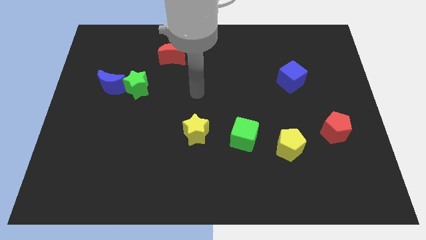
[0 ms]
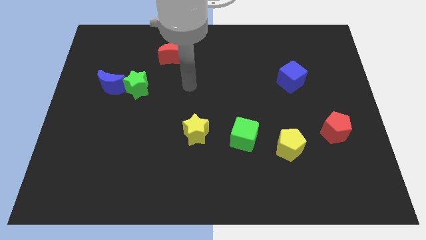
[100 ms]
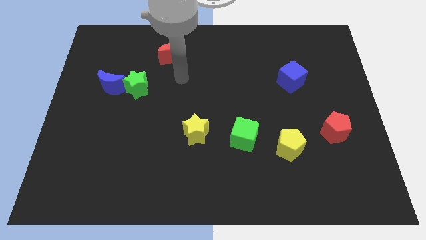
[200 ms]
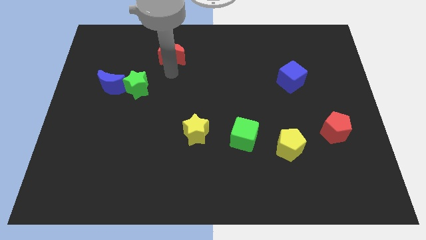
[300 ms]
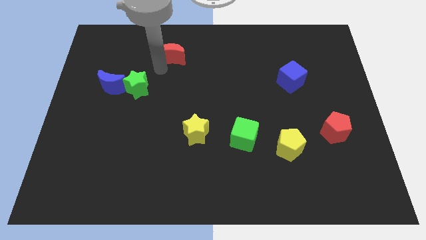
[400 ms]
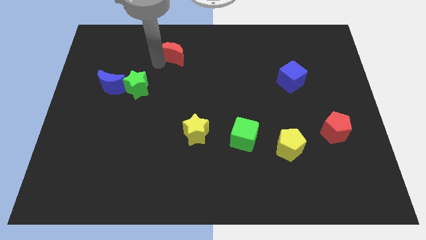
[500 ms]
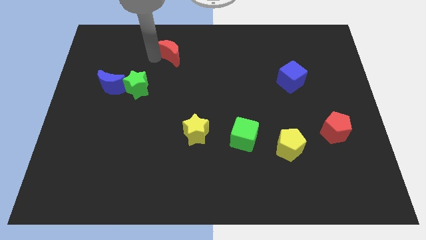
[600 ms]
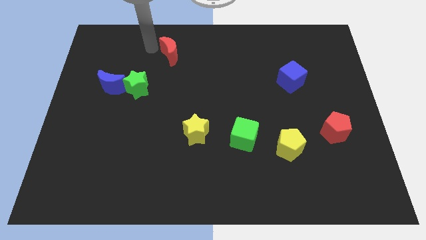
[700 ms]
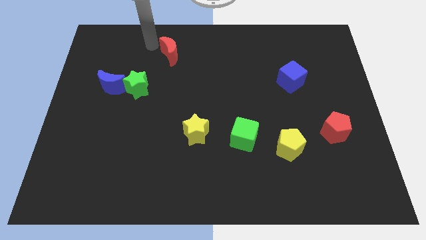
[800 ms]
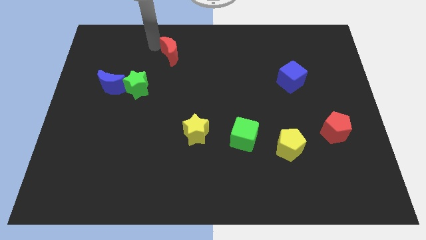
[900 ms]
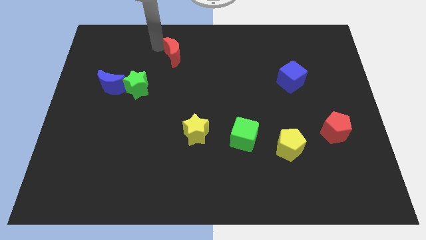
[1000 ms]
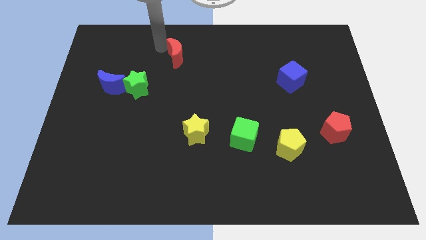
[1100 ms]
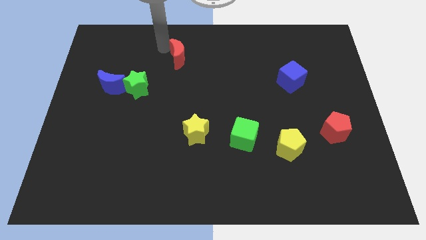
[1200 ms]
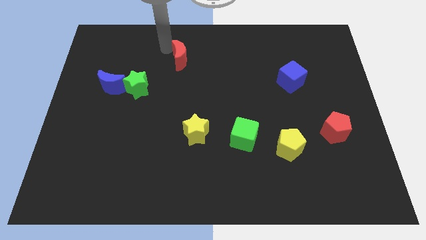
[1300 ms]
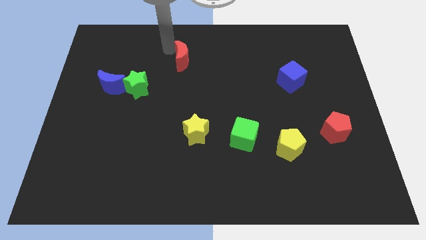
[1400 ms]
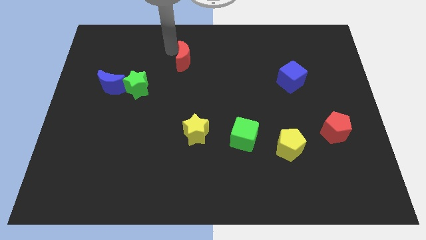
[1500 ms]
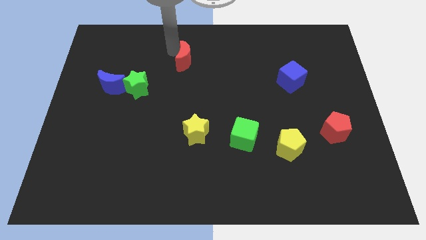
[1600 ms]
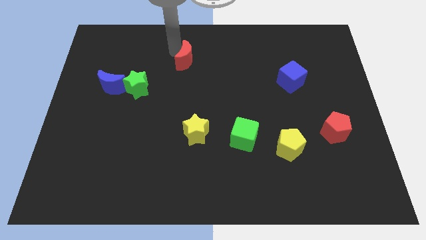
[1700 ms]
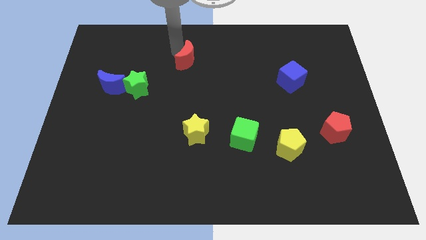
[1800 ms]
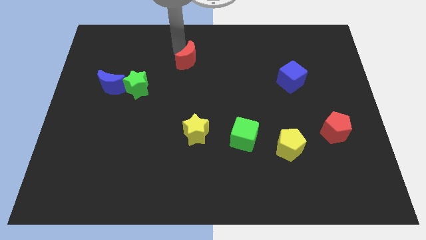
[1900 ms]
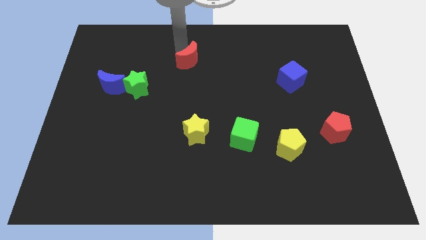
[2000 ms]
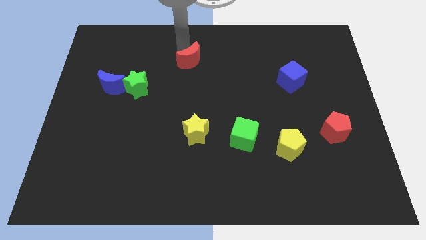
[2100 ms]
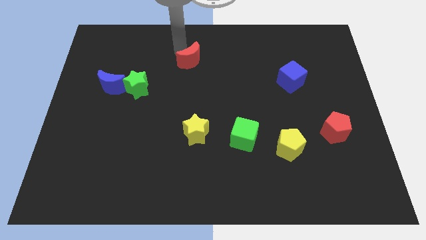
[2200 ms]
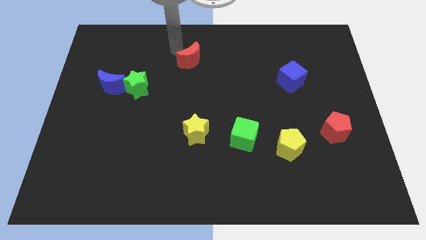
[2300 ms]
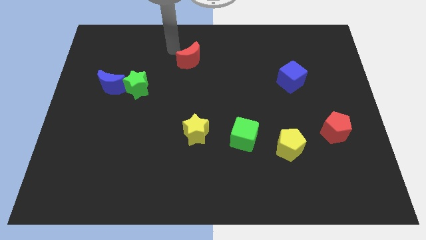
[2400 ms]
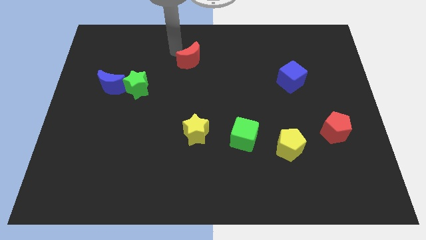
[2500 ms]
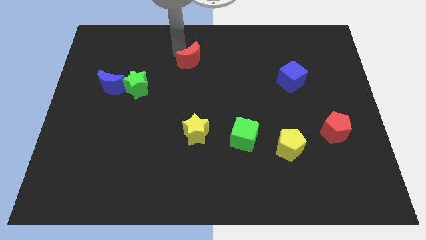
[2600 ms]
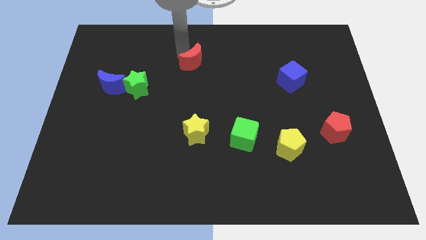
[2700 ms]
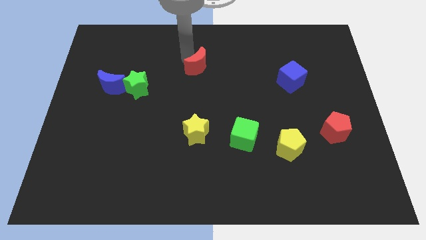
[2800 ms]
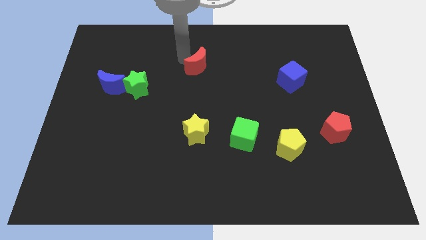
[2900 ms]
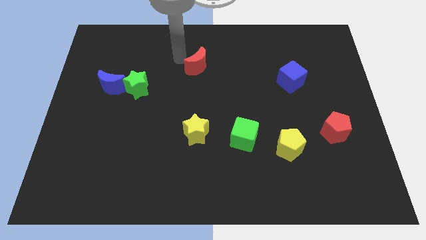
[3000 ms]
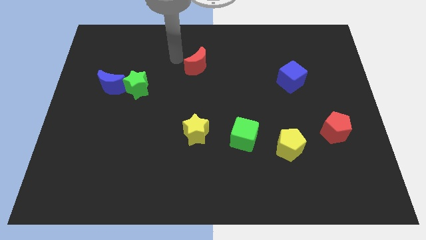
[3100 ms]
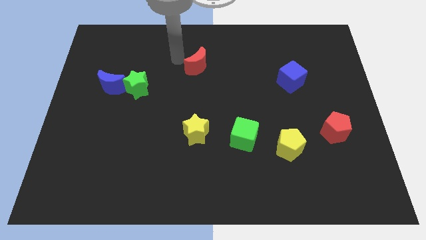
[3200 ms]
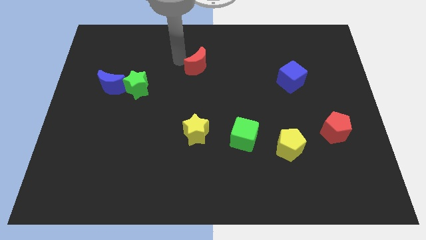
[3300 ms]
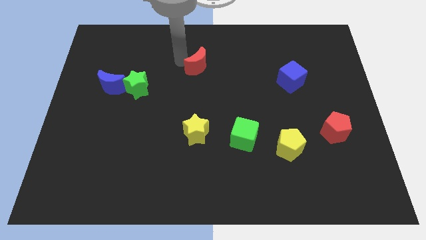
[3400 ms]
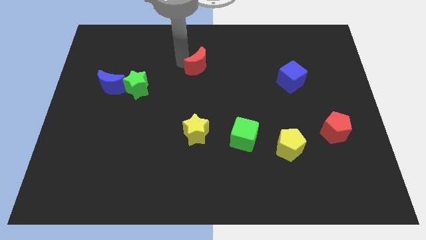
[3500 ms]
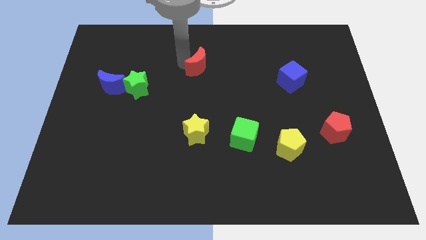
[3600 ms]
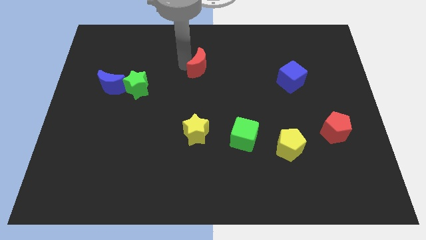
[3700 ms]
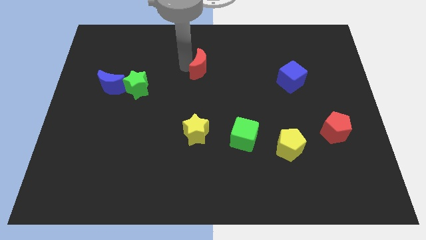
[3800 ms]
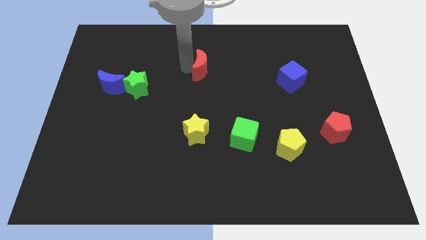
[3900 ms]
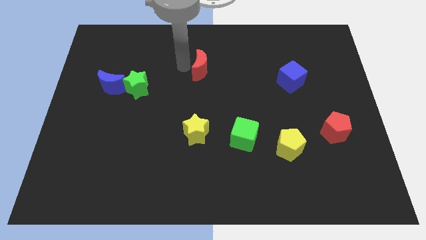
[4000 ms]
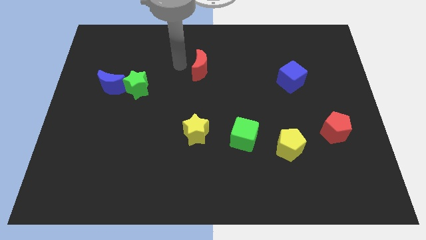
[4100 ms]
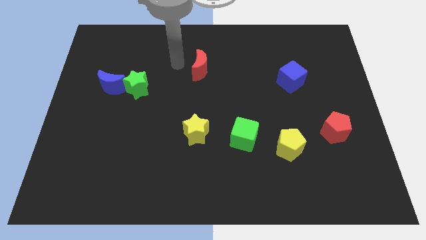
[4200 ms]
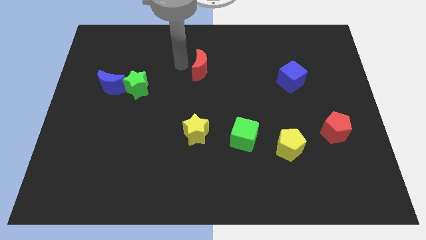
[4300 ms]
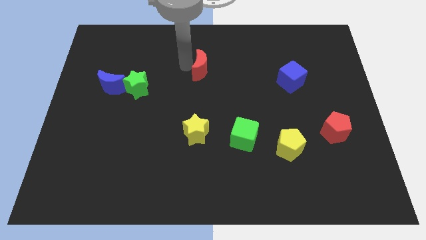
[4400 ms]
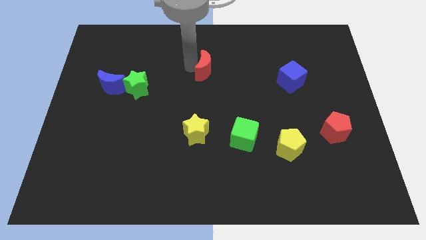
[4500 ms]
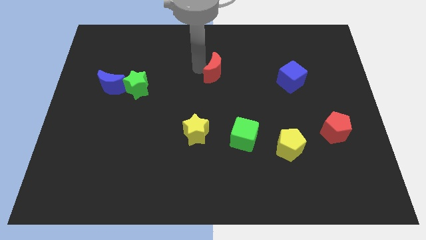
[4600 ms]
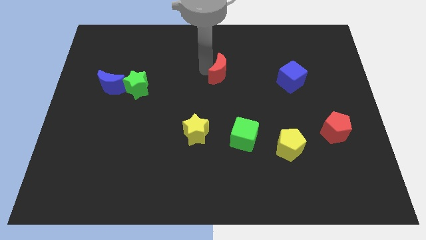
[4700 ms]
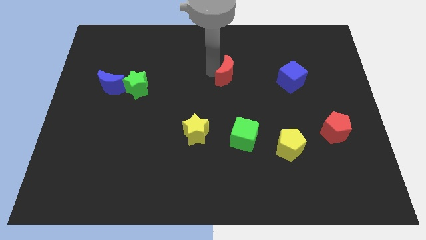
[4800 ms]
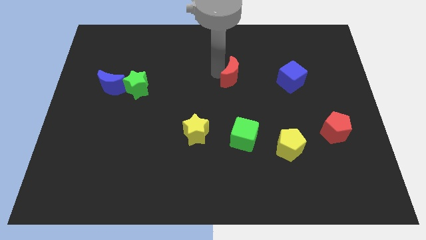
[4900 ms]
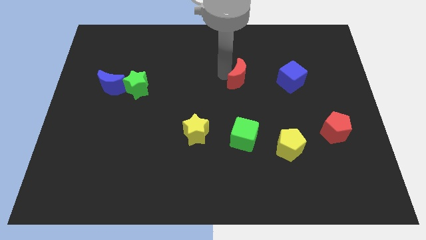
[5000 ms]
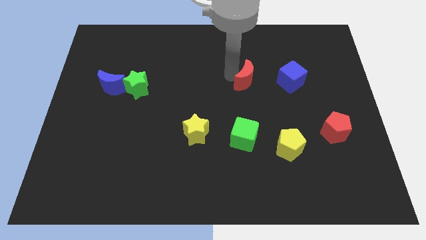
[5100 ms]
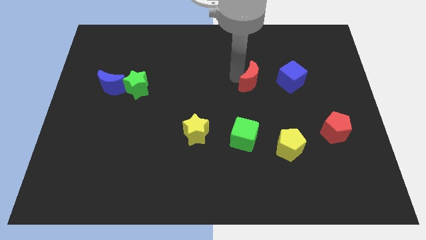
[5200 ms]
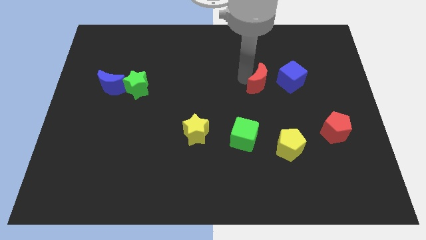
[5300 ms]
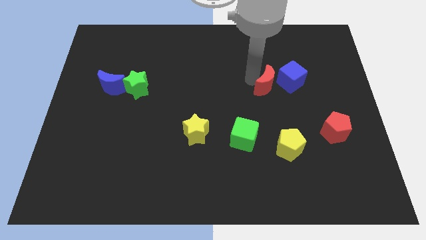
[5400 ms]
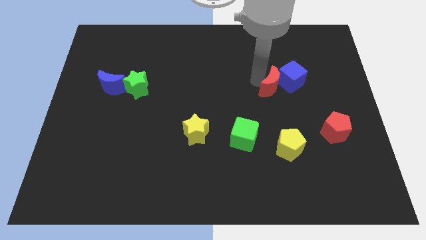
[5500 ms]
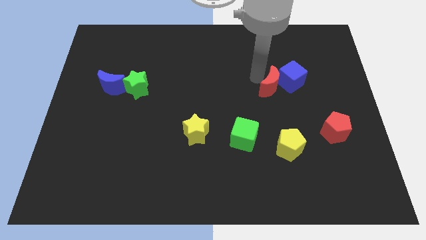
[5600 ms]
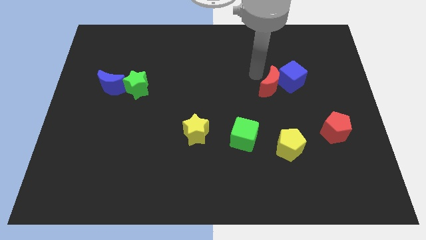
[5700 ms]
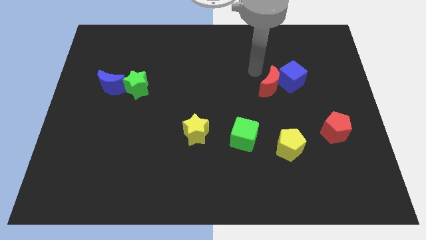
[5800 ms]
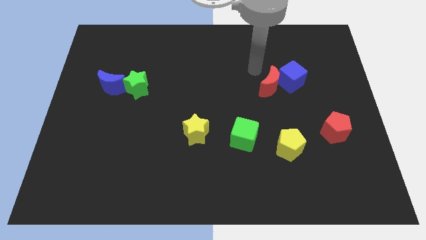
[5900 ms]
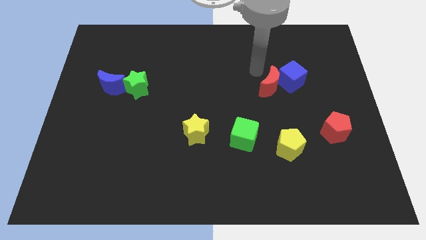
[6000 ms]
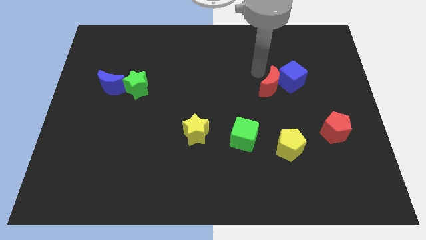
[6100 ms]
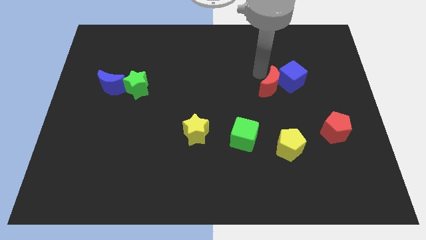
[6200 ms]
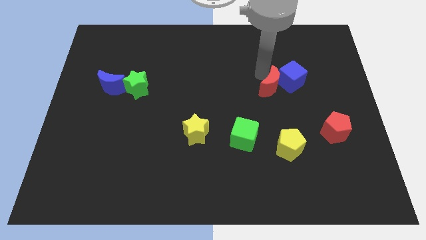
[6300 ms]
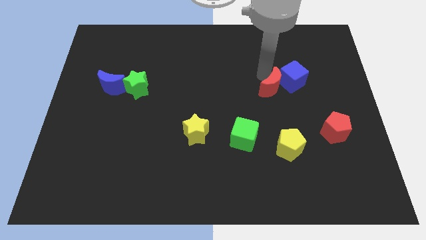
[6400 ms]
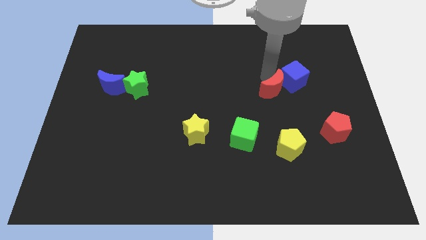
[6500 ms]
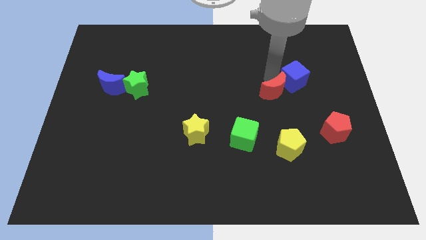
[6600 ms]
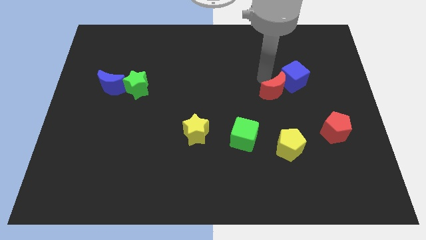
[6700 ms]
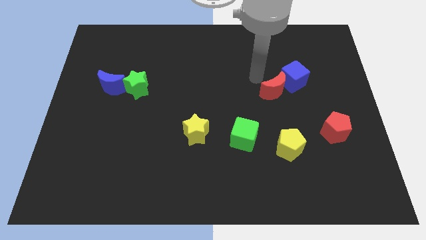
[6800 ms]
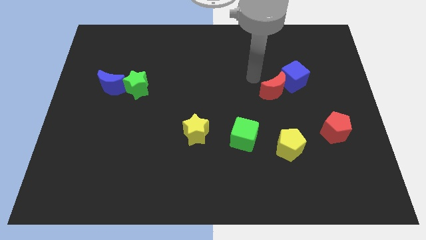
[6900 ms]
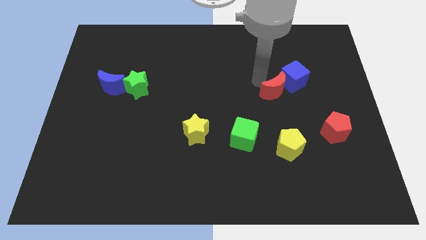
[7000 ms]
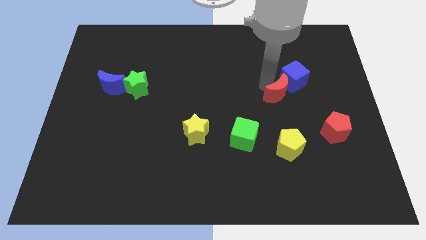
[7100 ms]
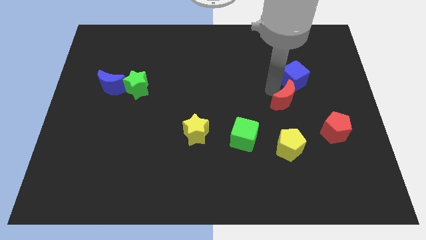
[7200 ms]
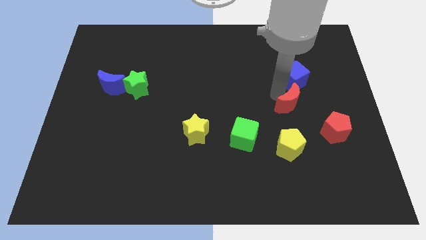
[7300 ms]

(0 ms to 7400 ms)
put the red moon to the top left side of the red pentagon

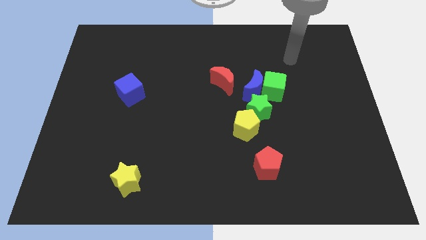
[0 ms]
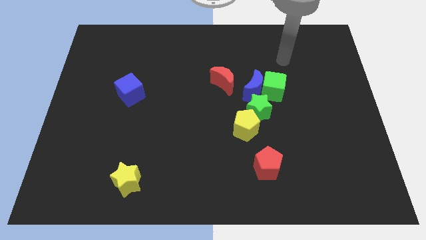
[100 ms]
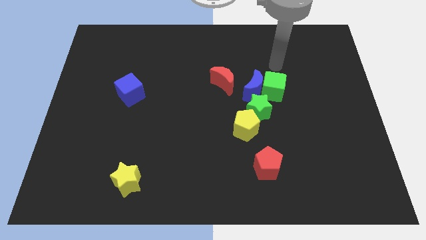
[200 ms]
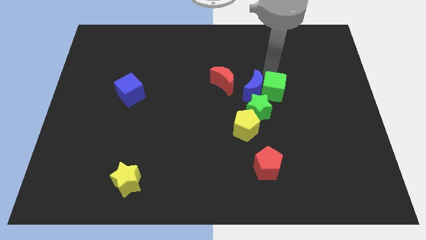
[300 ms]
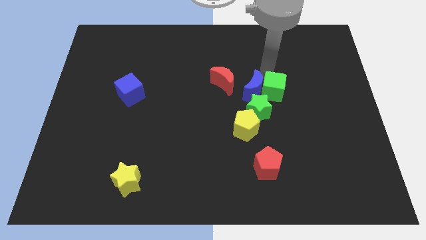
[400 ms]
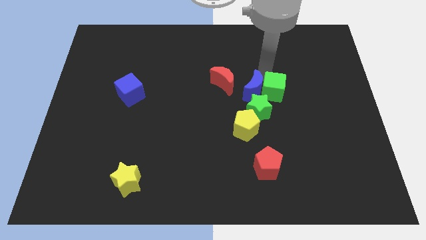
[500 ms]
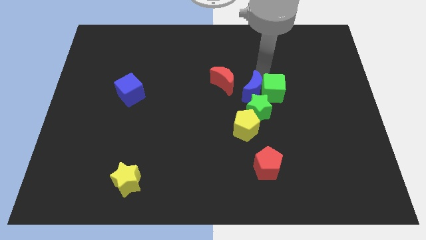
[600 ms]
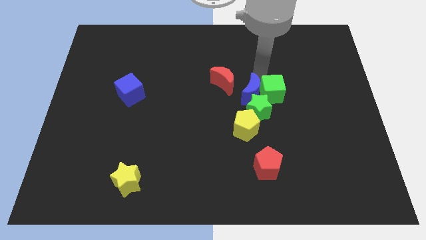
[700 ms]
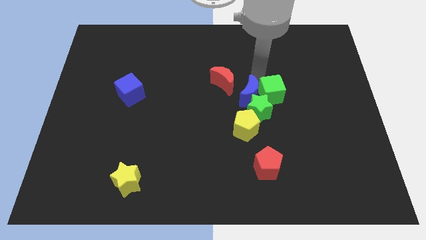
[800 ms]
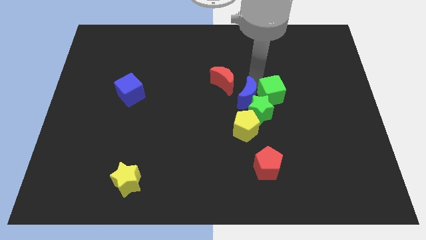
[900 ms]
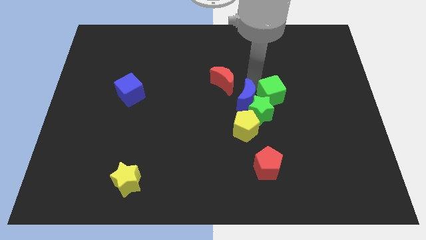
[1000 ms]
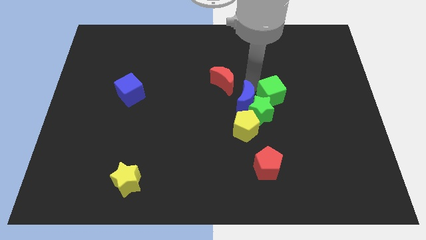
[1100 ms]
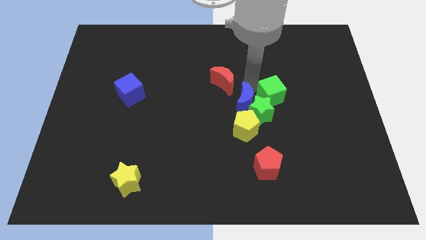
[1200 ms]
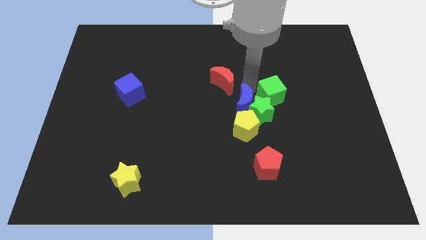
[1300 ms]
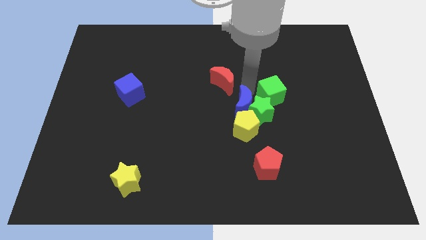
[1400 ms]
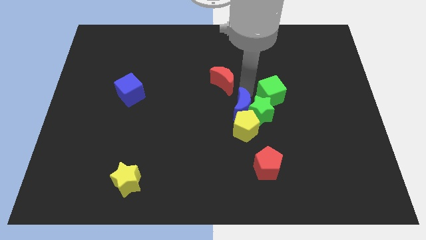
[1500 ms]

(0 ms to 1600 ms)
push the blue moon to the bottom left side of the green star
